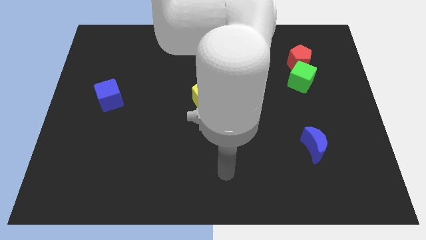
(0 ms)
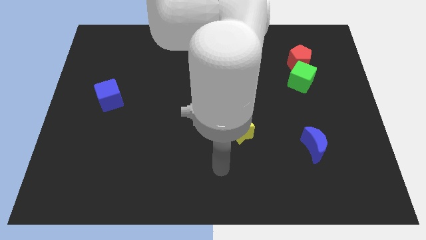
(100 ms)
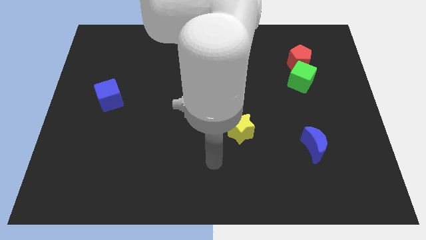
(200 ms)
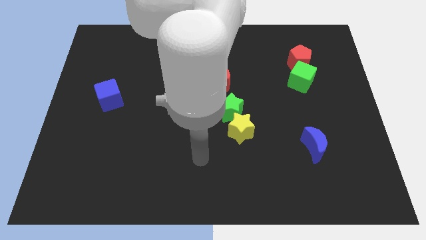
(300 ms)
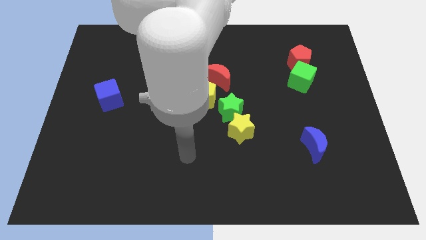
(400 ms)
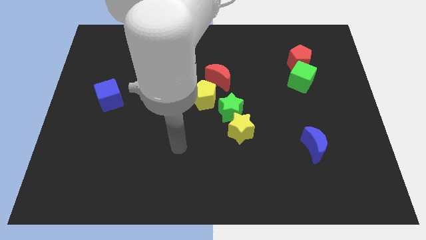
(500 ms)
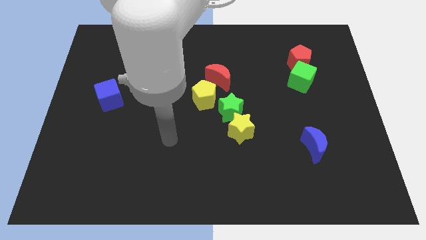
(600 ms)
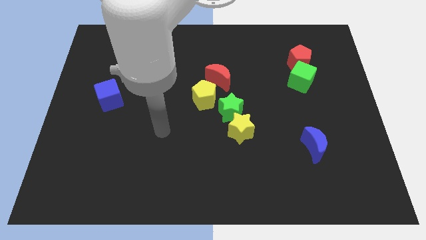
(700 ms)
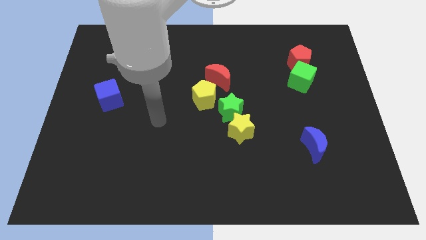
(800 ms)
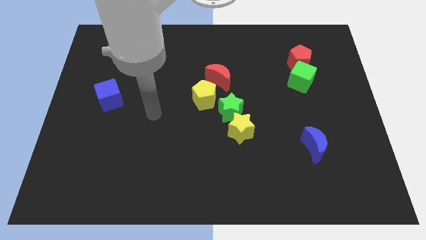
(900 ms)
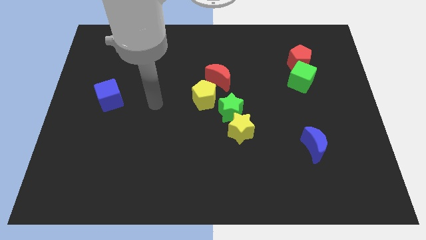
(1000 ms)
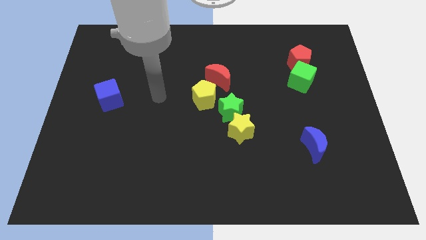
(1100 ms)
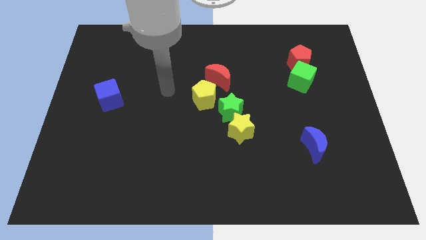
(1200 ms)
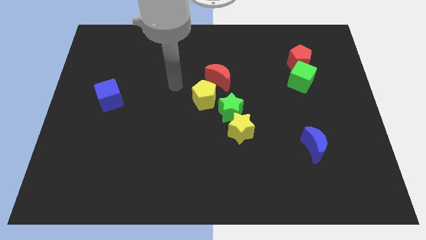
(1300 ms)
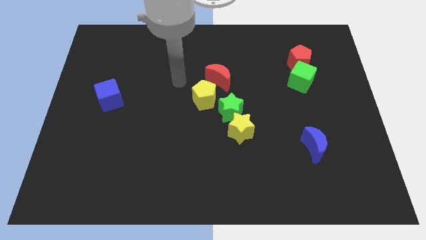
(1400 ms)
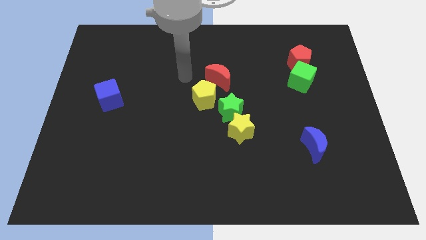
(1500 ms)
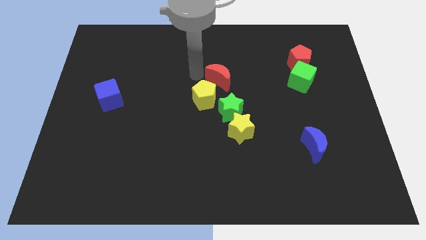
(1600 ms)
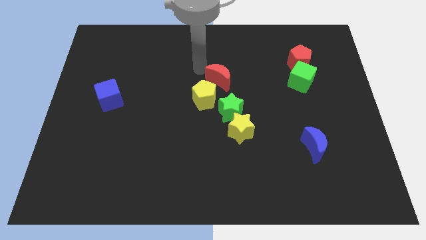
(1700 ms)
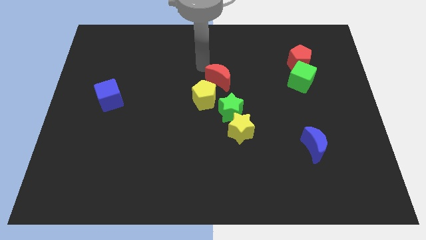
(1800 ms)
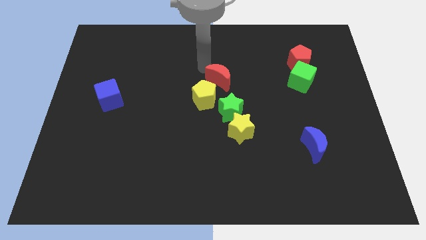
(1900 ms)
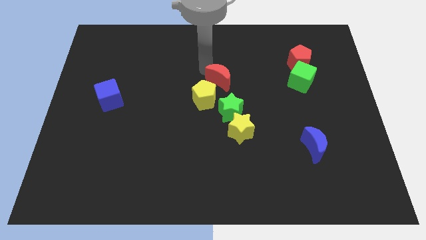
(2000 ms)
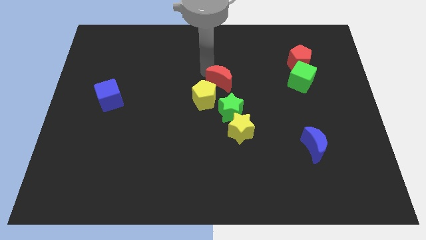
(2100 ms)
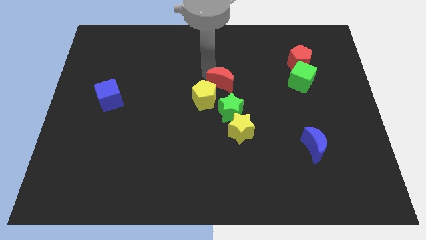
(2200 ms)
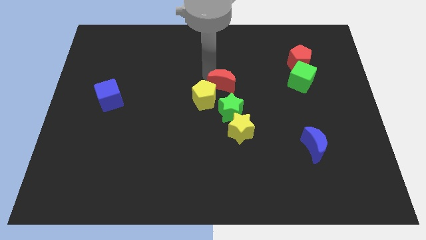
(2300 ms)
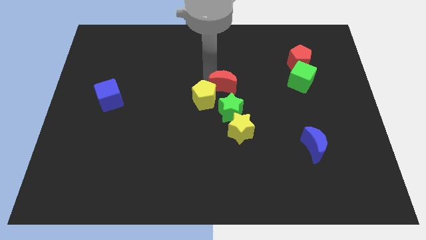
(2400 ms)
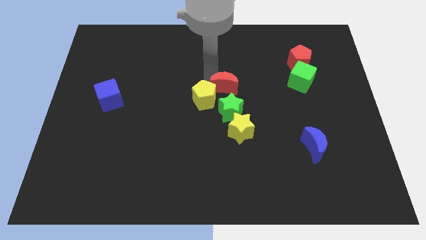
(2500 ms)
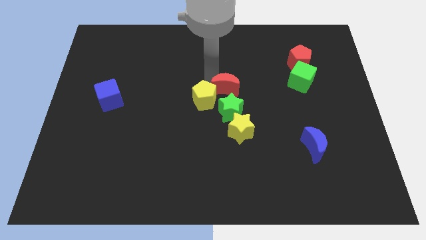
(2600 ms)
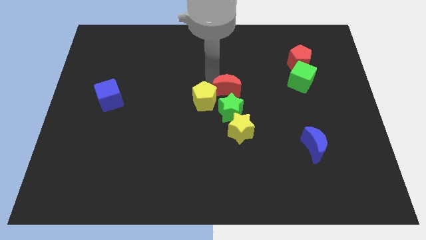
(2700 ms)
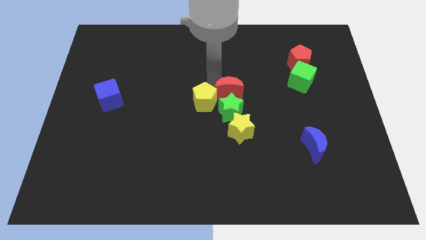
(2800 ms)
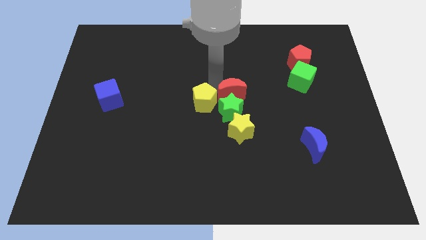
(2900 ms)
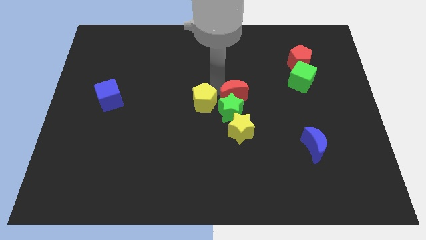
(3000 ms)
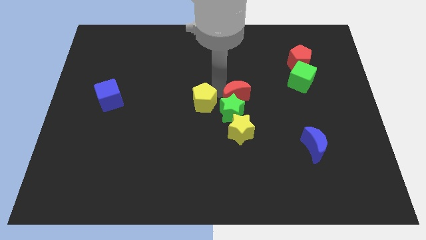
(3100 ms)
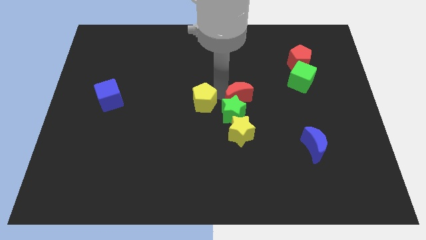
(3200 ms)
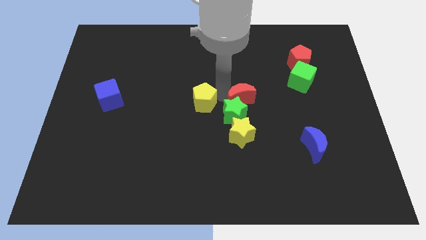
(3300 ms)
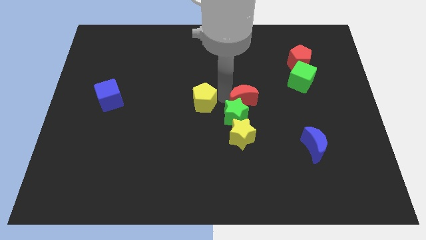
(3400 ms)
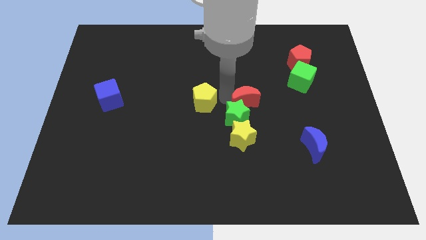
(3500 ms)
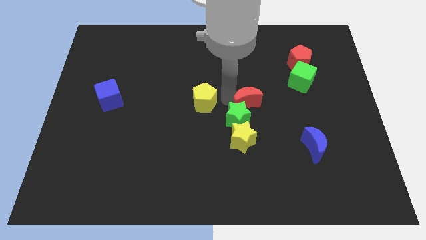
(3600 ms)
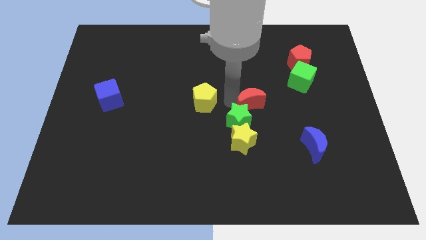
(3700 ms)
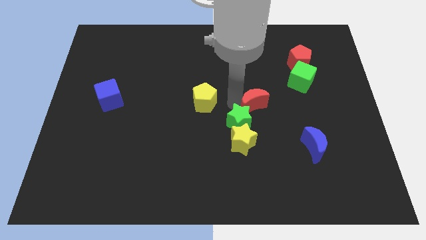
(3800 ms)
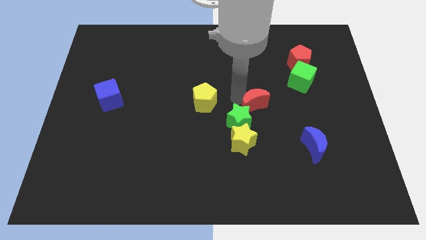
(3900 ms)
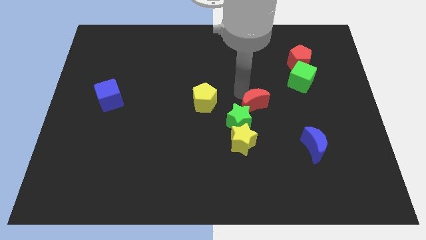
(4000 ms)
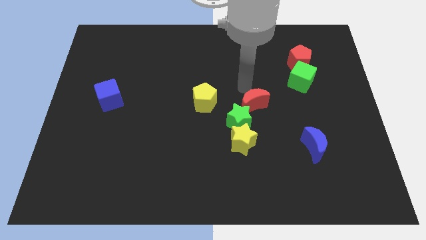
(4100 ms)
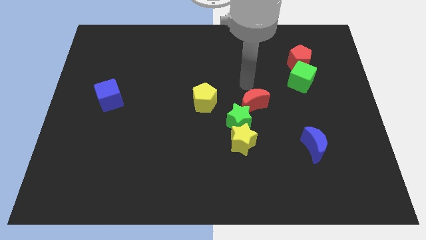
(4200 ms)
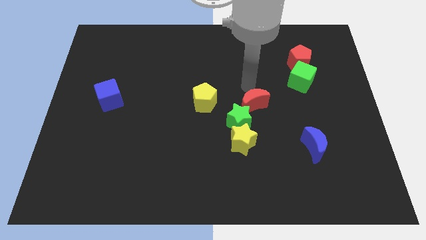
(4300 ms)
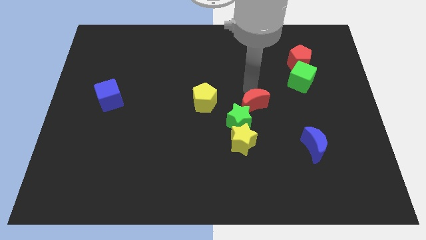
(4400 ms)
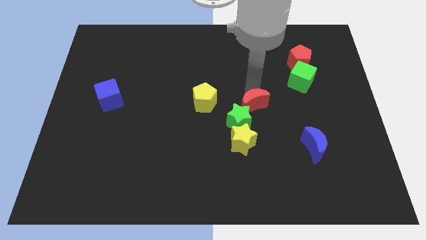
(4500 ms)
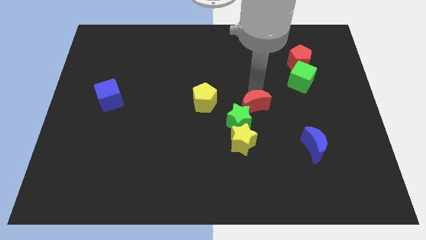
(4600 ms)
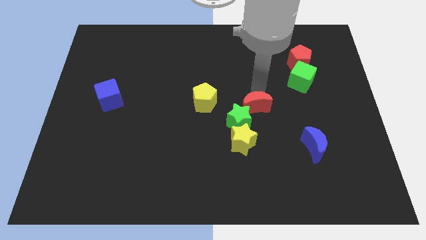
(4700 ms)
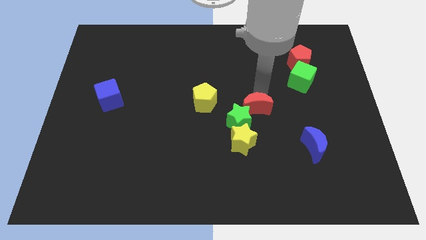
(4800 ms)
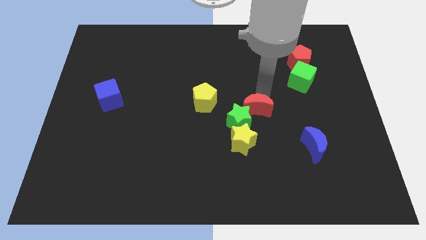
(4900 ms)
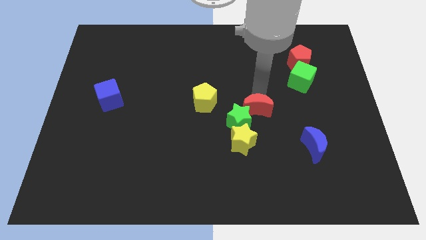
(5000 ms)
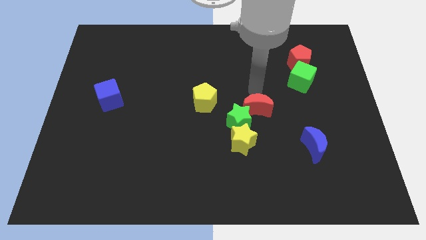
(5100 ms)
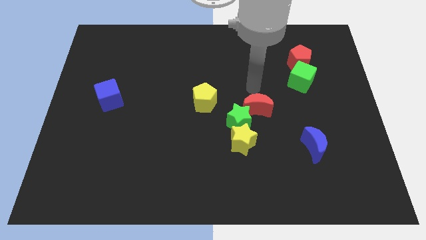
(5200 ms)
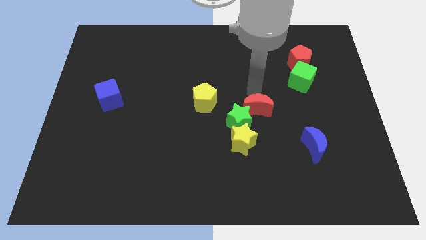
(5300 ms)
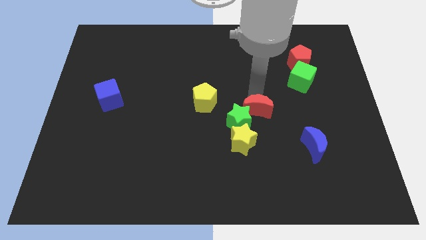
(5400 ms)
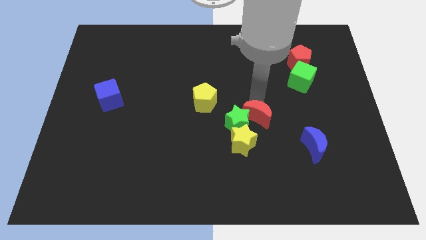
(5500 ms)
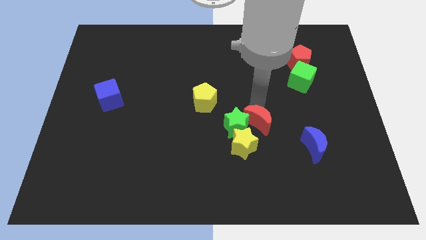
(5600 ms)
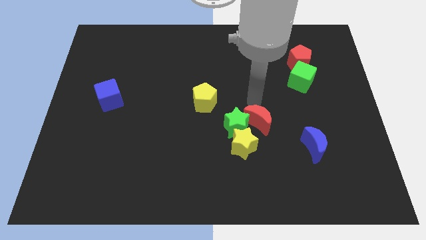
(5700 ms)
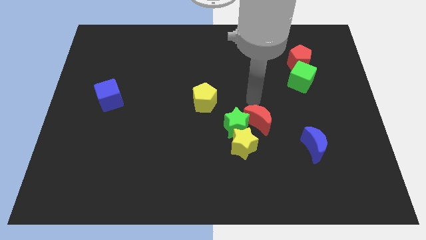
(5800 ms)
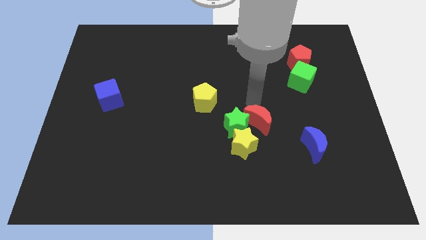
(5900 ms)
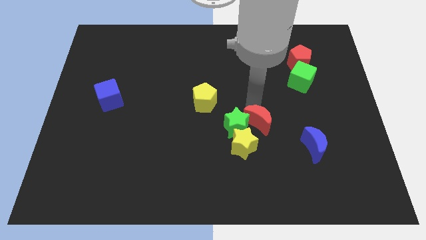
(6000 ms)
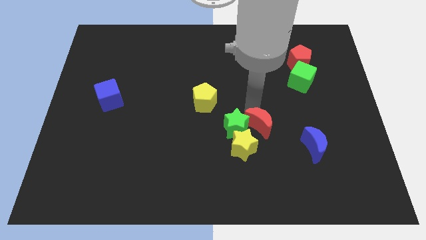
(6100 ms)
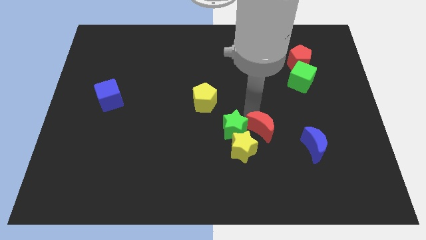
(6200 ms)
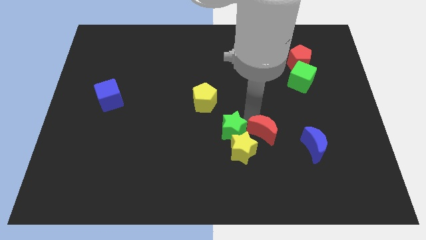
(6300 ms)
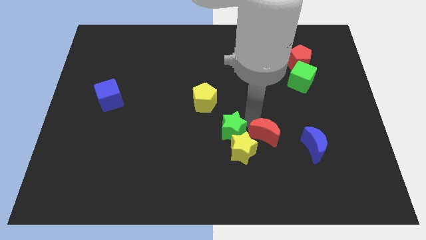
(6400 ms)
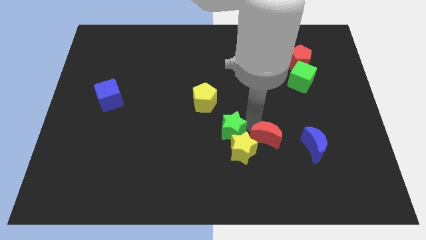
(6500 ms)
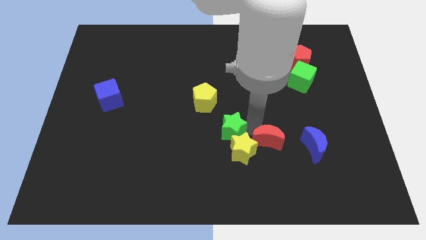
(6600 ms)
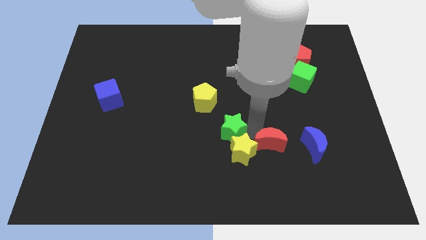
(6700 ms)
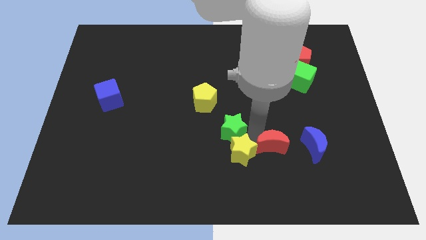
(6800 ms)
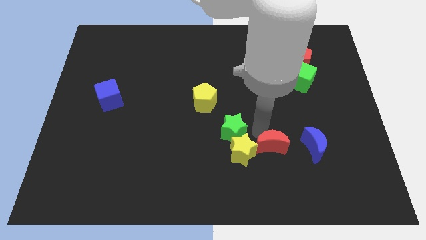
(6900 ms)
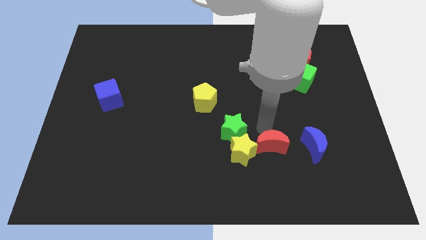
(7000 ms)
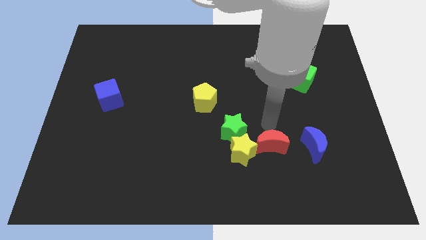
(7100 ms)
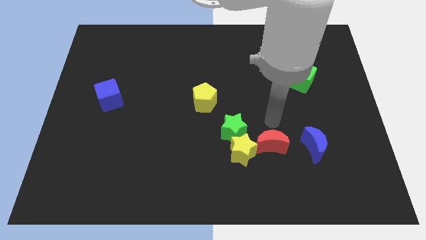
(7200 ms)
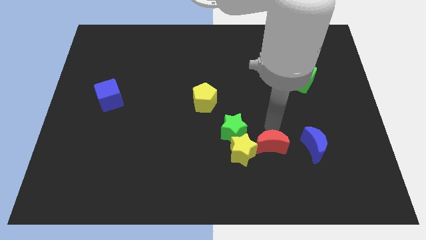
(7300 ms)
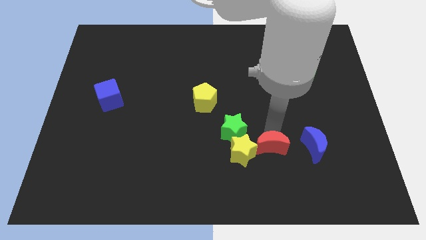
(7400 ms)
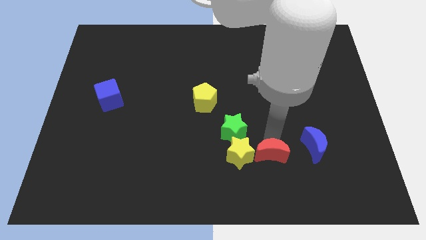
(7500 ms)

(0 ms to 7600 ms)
move the red moon diagonally down and to the right of the yellow star

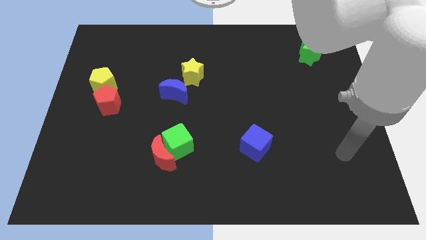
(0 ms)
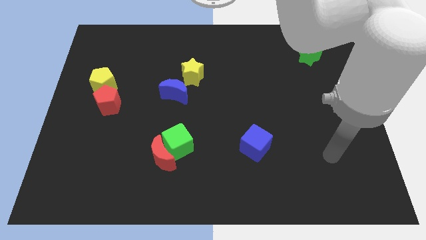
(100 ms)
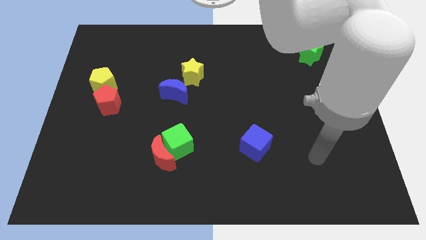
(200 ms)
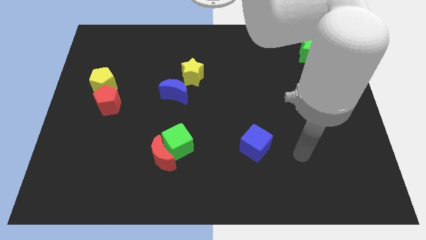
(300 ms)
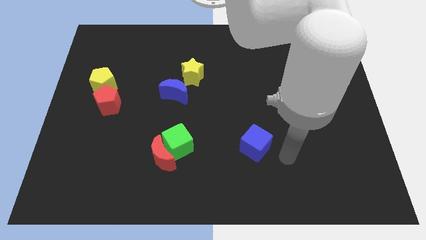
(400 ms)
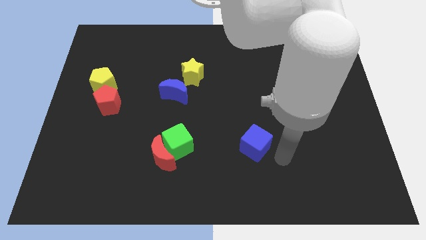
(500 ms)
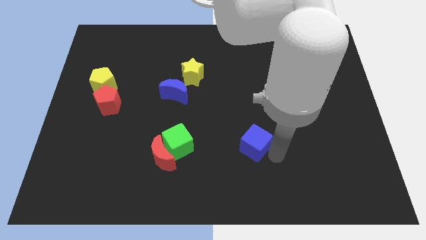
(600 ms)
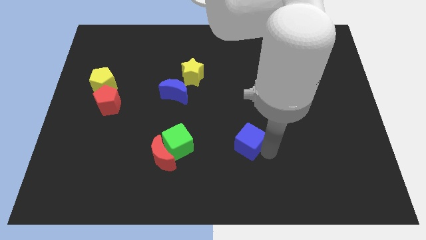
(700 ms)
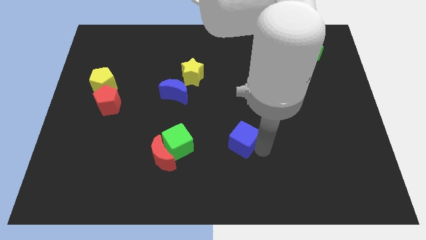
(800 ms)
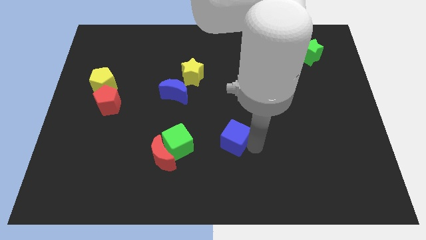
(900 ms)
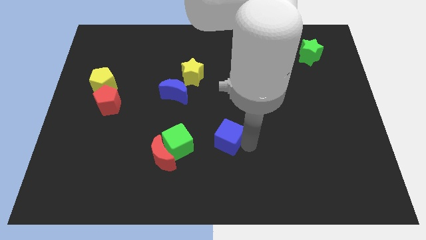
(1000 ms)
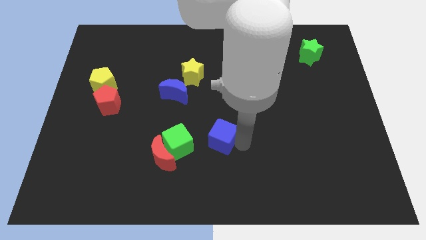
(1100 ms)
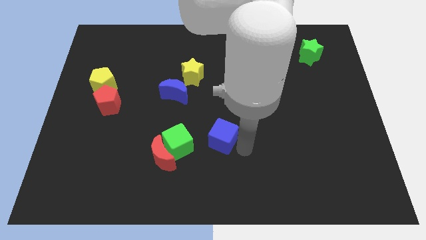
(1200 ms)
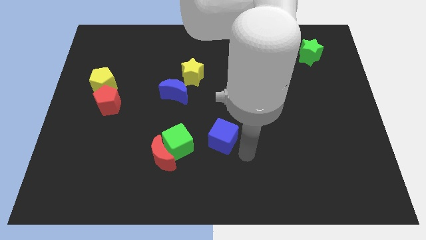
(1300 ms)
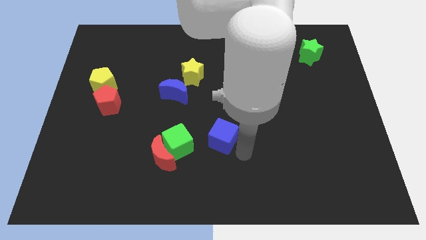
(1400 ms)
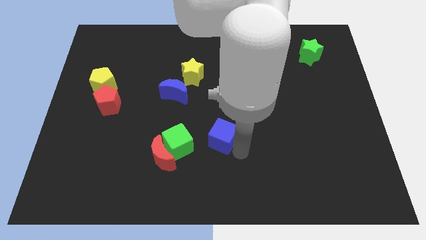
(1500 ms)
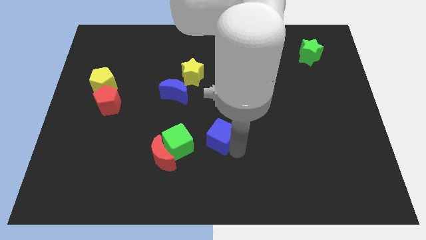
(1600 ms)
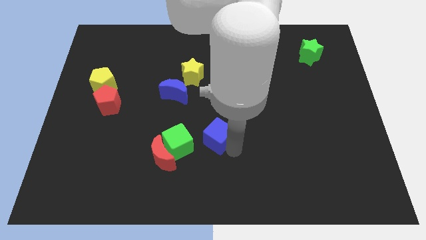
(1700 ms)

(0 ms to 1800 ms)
push the blue cube diagonally up and to the right of the green cube
